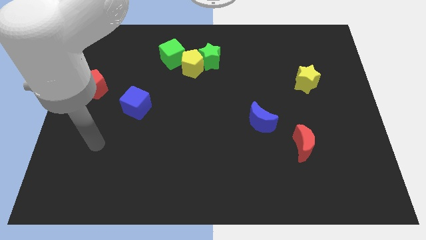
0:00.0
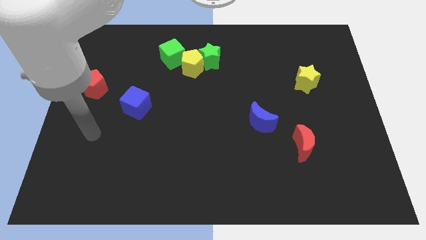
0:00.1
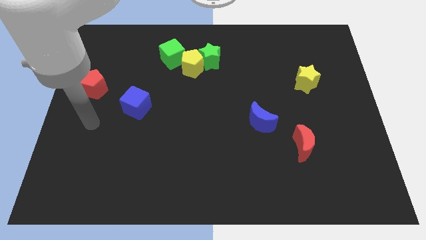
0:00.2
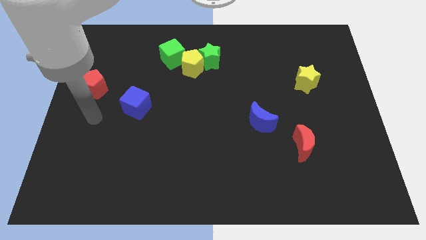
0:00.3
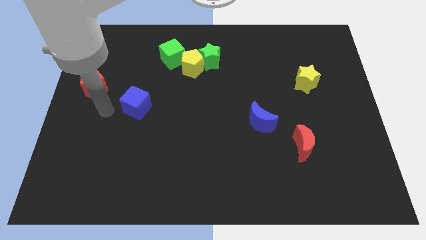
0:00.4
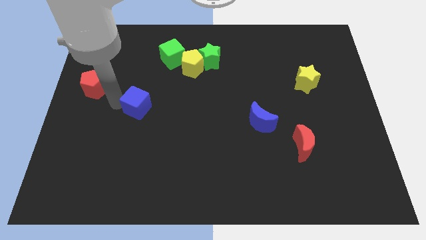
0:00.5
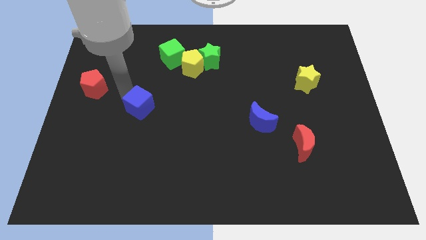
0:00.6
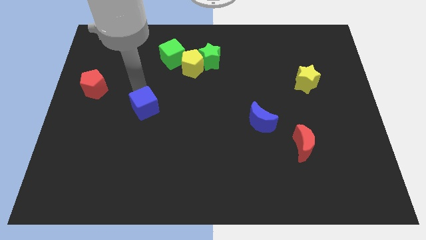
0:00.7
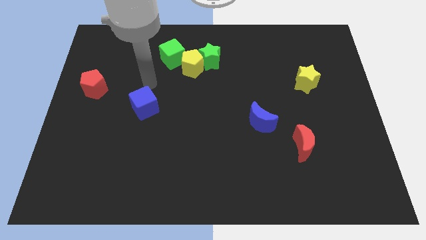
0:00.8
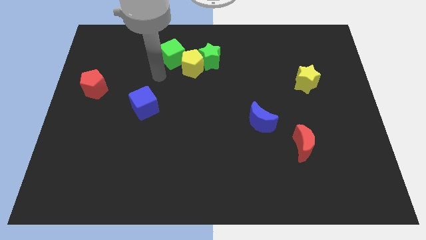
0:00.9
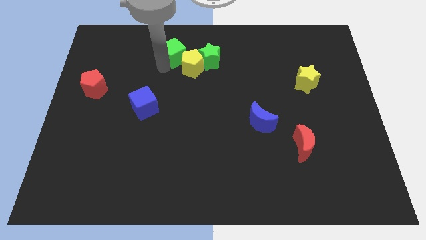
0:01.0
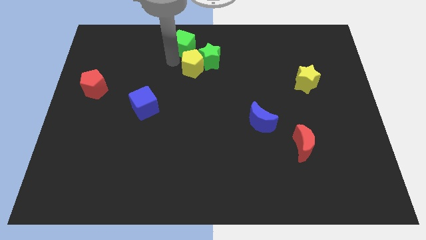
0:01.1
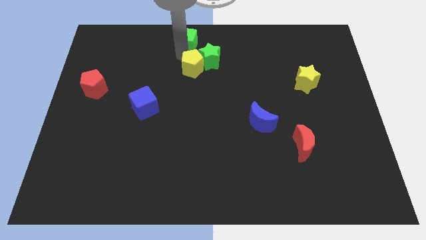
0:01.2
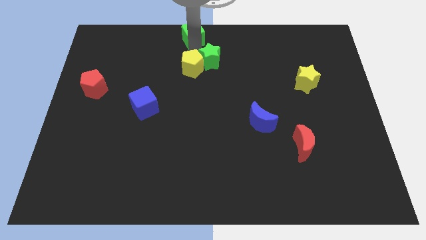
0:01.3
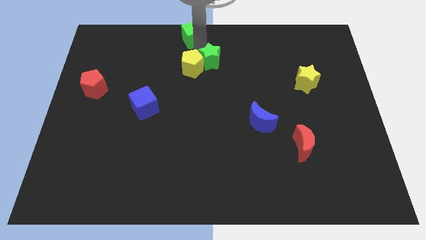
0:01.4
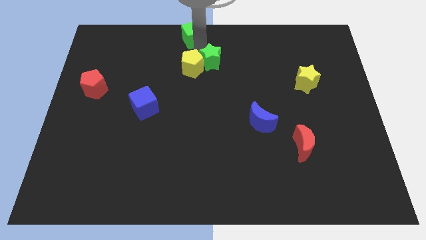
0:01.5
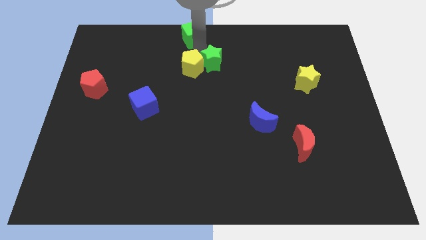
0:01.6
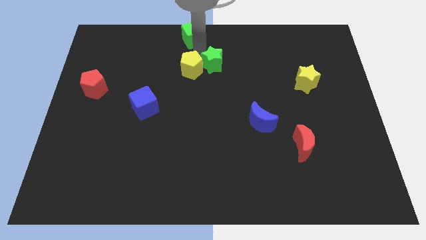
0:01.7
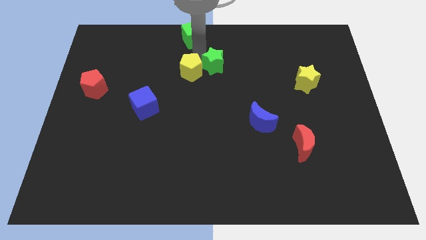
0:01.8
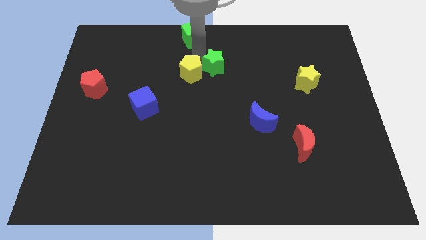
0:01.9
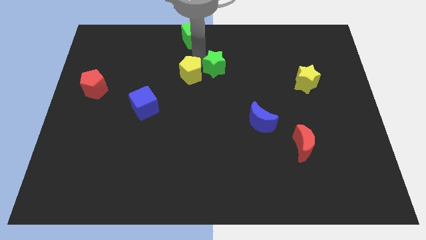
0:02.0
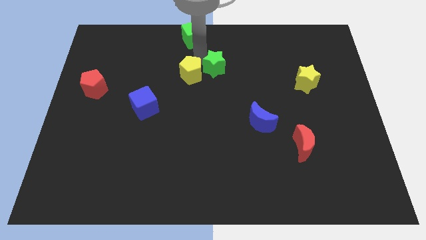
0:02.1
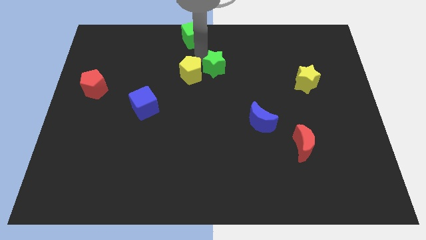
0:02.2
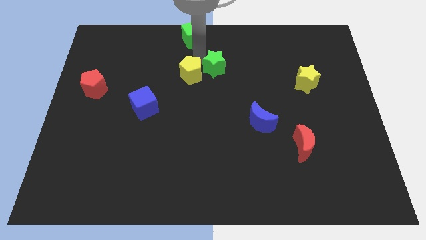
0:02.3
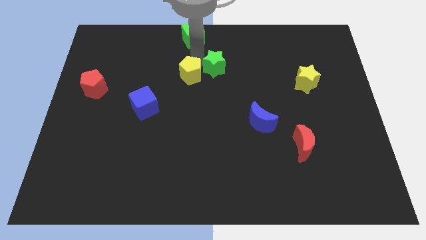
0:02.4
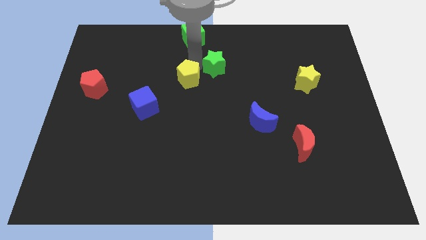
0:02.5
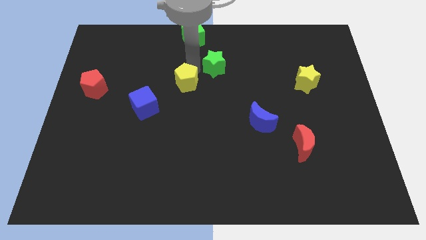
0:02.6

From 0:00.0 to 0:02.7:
separate the yellow pentagon from the green star and green cube

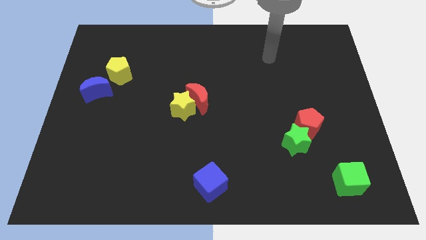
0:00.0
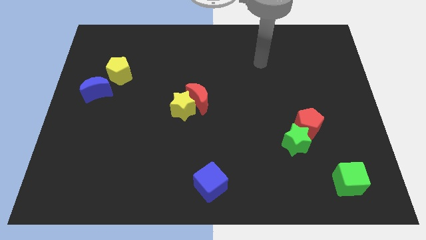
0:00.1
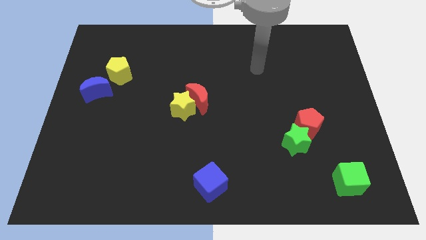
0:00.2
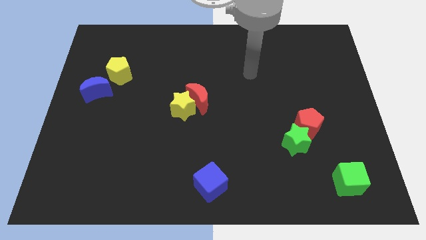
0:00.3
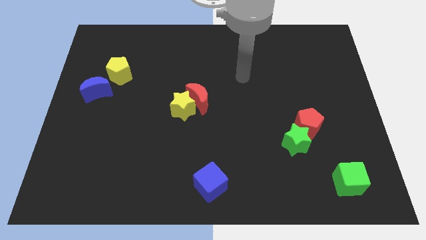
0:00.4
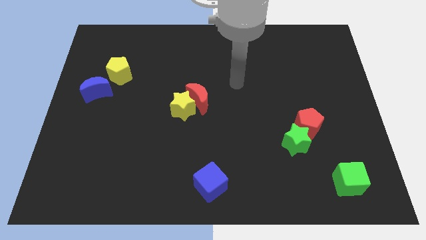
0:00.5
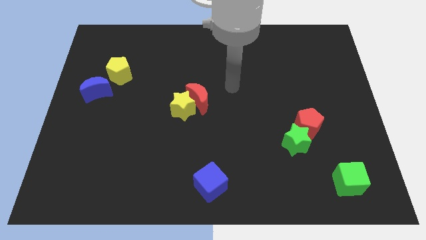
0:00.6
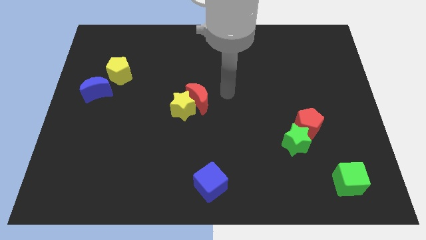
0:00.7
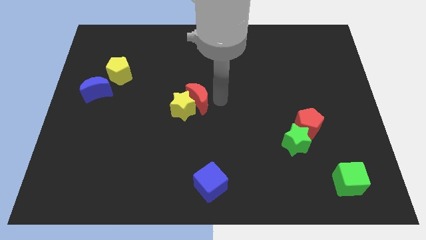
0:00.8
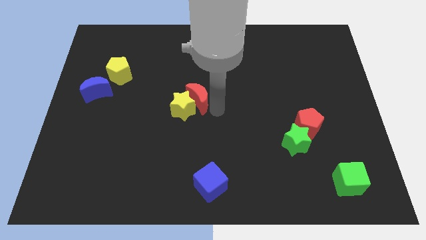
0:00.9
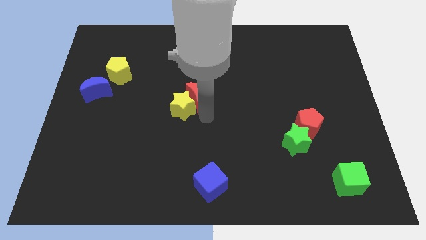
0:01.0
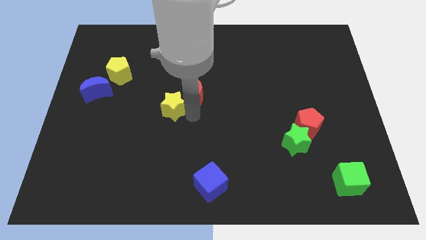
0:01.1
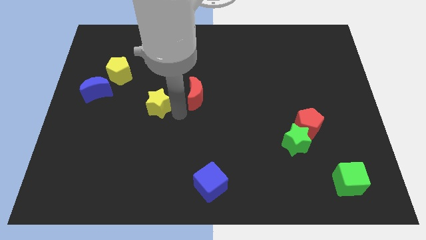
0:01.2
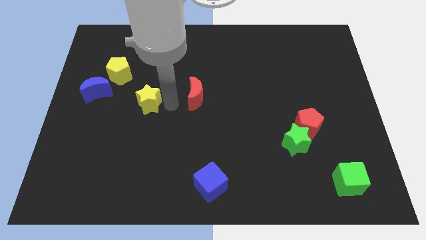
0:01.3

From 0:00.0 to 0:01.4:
separate the red moon from the yellow star

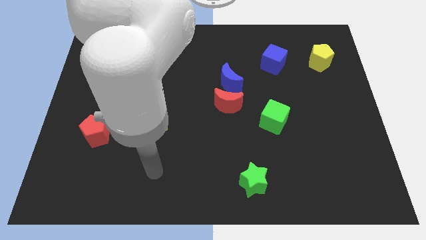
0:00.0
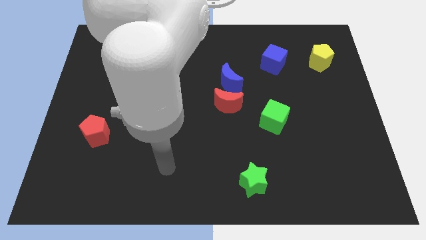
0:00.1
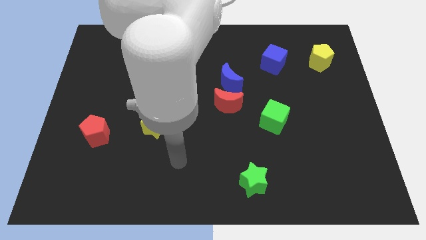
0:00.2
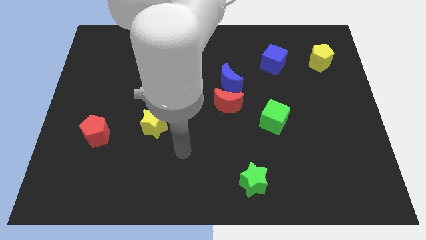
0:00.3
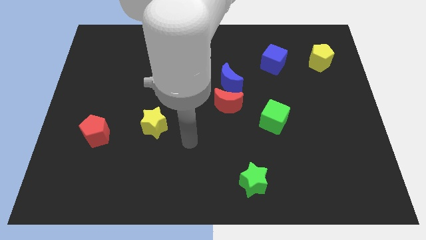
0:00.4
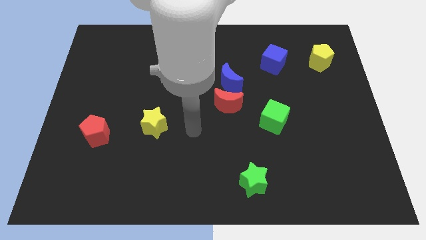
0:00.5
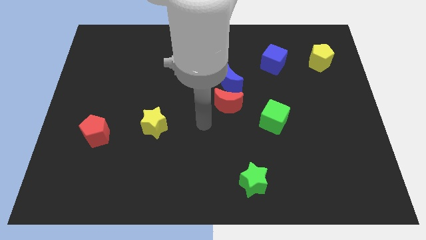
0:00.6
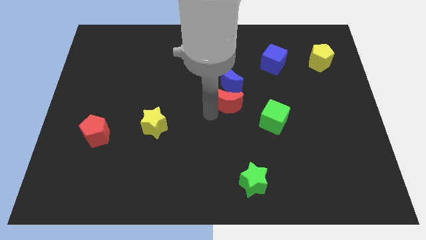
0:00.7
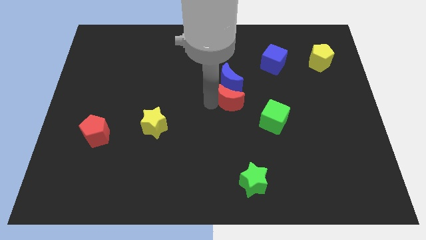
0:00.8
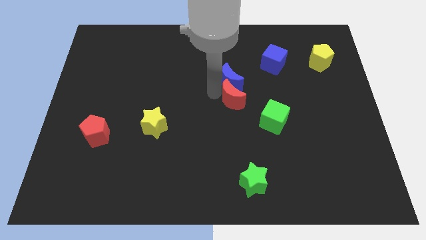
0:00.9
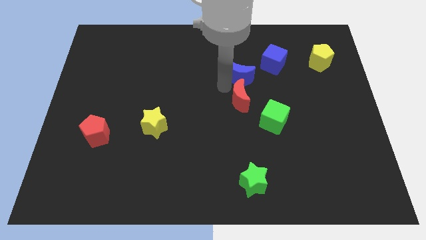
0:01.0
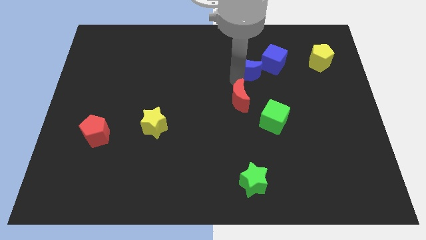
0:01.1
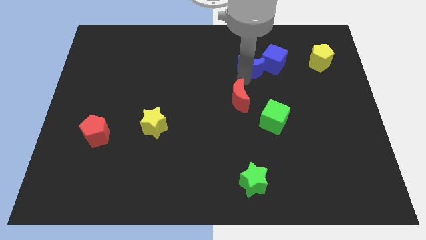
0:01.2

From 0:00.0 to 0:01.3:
separate the red moon from the blue moon

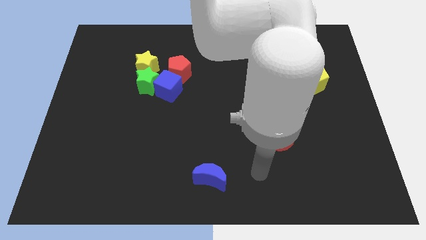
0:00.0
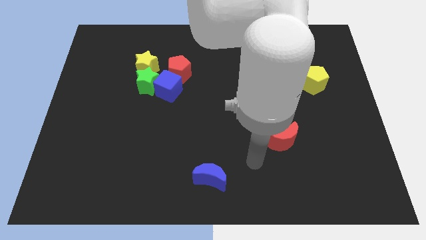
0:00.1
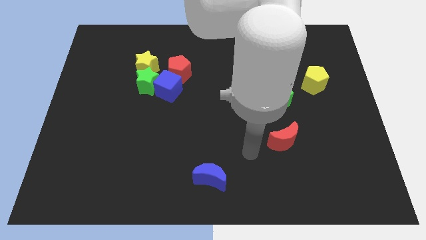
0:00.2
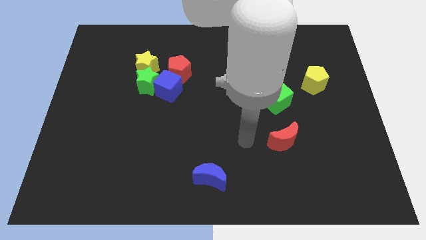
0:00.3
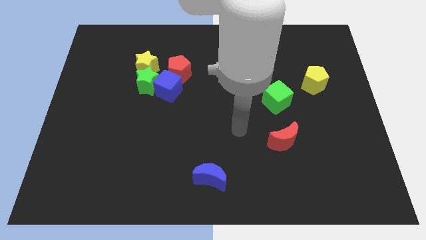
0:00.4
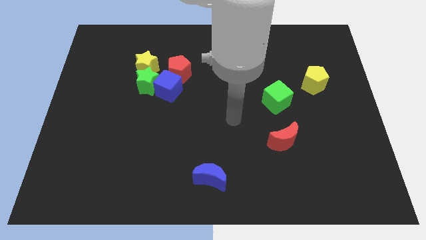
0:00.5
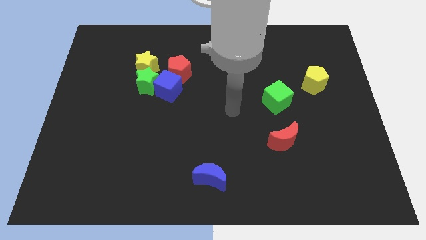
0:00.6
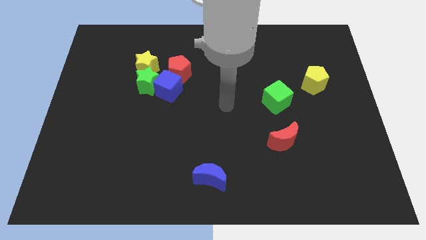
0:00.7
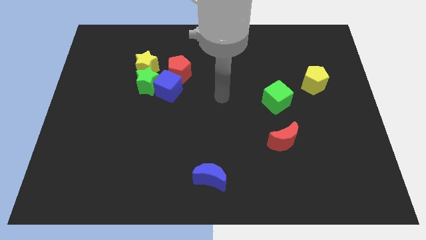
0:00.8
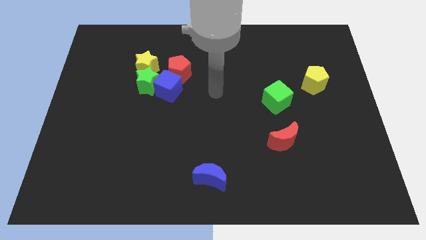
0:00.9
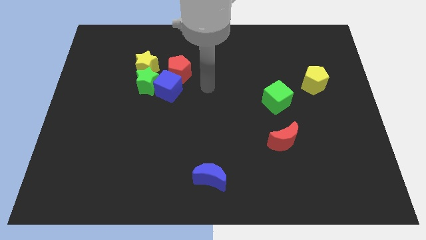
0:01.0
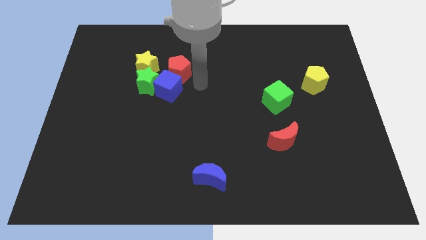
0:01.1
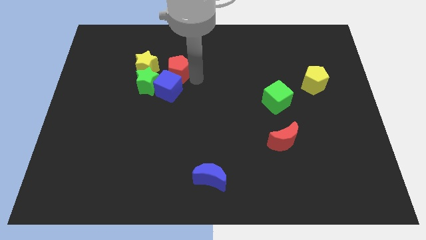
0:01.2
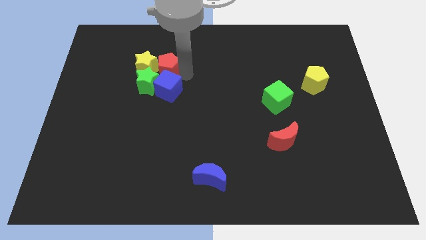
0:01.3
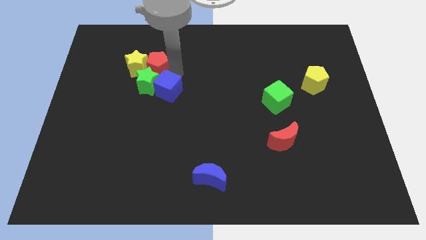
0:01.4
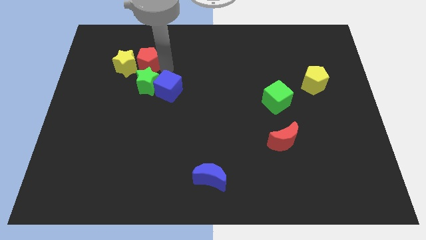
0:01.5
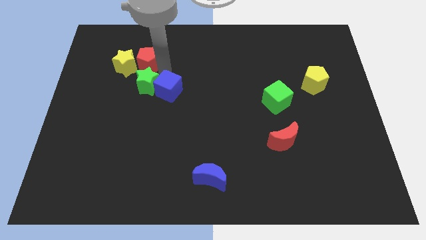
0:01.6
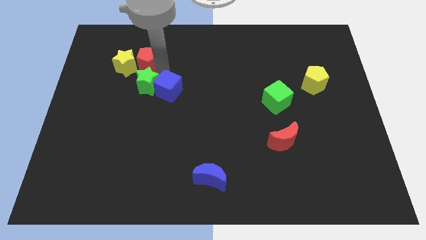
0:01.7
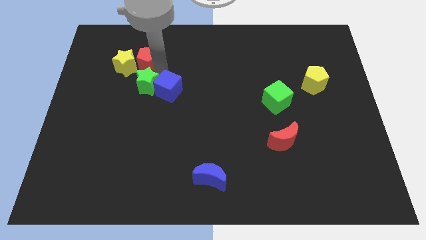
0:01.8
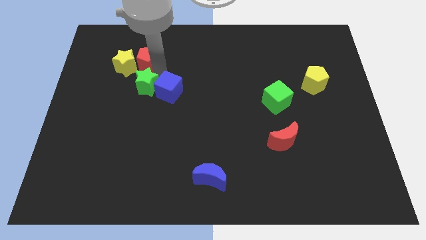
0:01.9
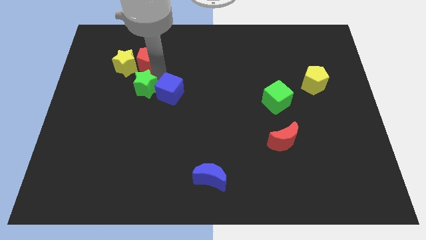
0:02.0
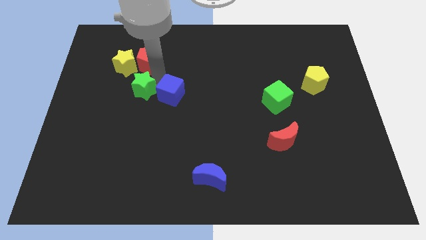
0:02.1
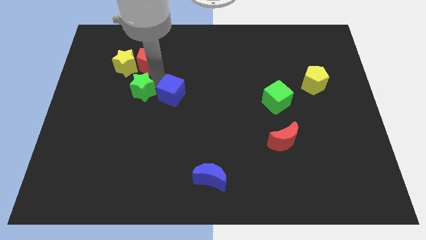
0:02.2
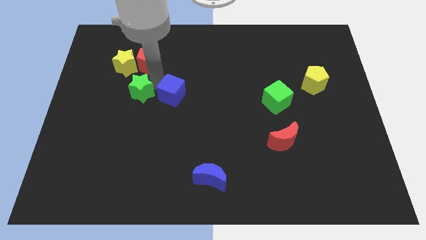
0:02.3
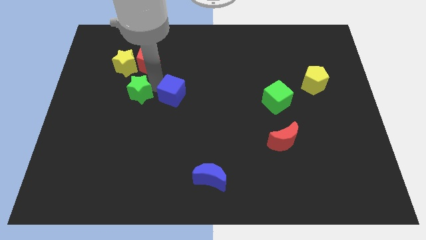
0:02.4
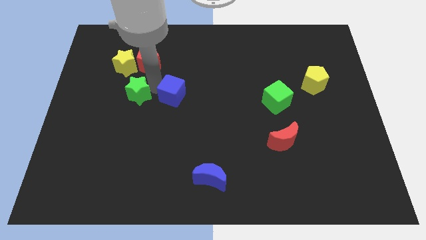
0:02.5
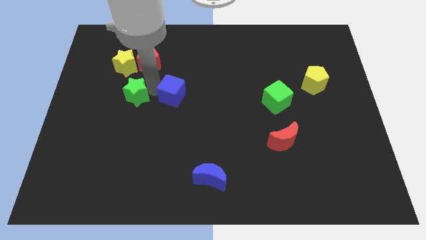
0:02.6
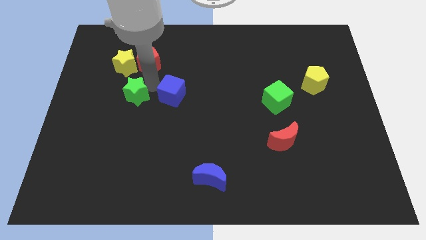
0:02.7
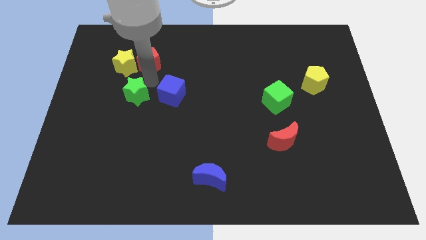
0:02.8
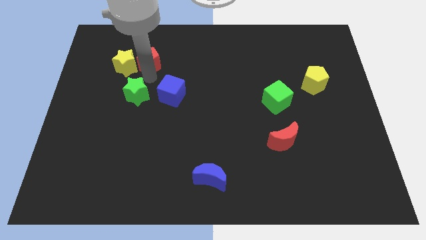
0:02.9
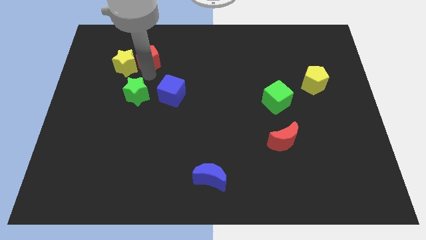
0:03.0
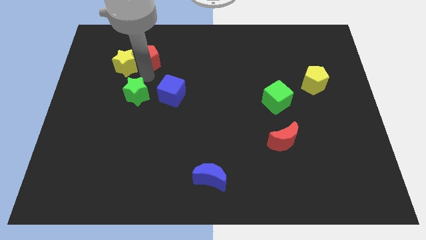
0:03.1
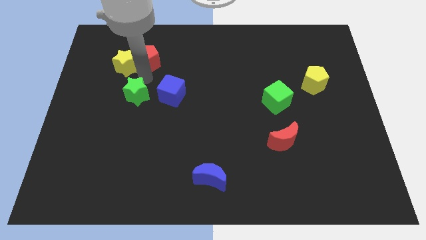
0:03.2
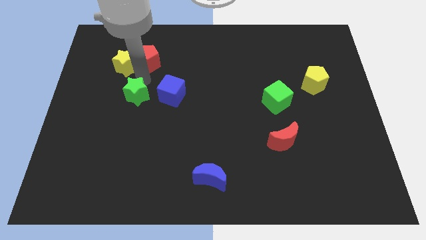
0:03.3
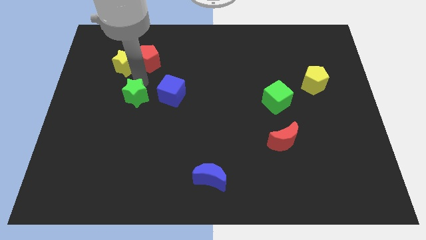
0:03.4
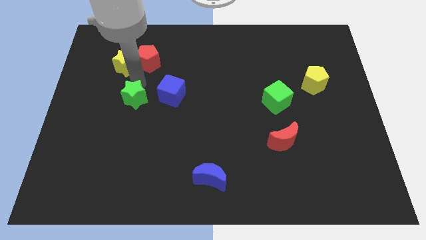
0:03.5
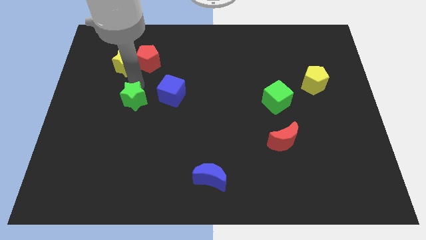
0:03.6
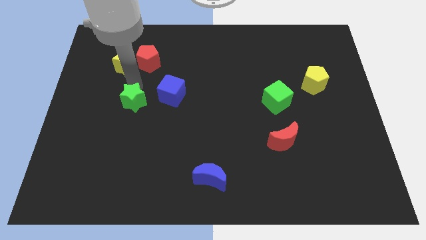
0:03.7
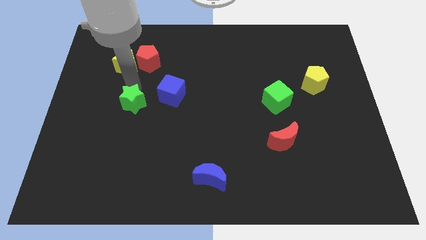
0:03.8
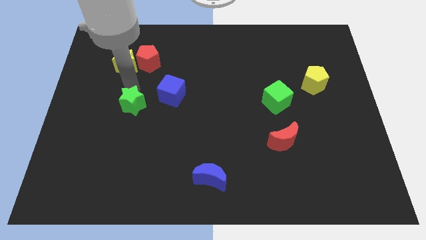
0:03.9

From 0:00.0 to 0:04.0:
pull the green star apart from the blue cube, yellow star, and red pentagon
